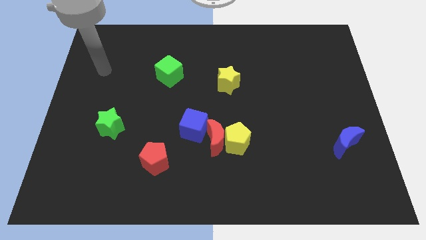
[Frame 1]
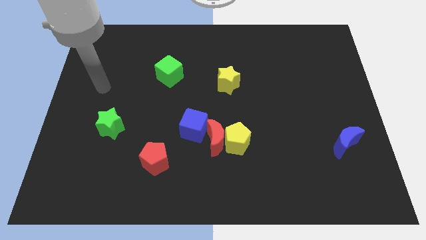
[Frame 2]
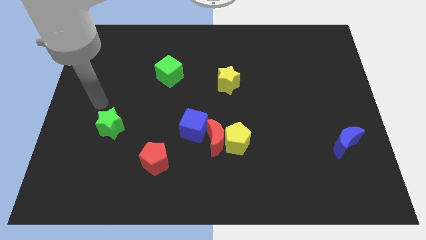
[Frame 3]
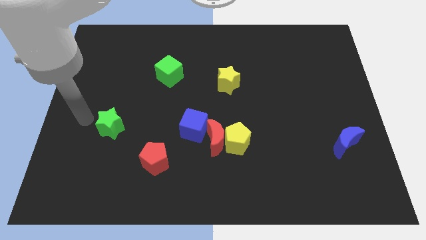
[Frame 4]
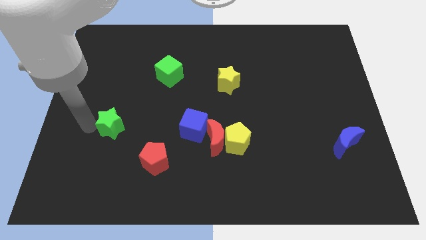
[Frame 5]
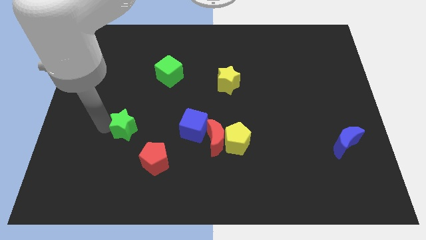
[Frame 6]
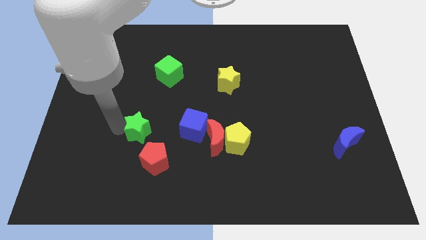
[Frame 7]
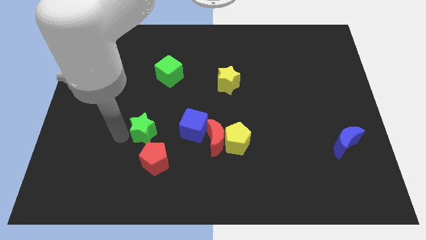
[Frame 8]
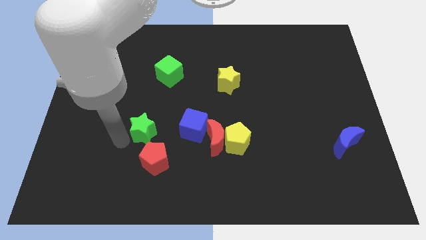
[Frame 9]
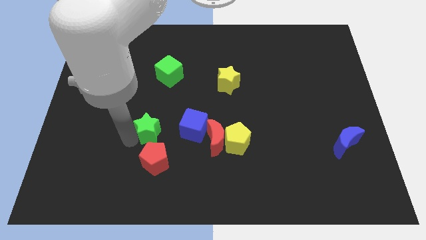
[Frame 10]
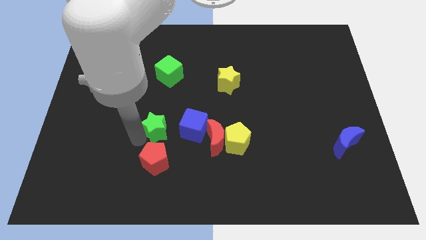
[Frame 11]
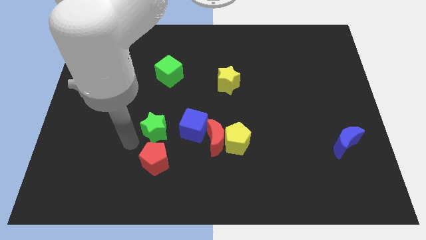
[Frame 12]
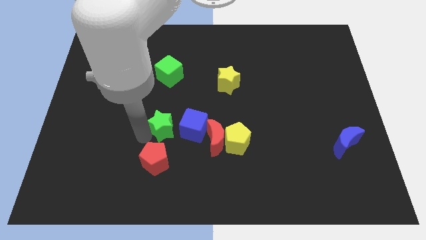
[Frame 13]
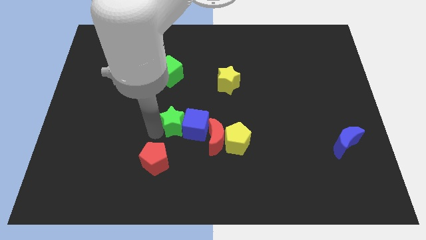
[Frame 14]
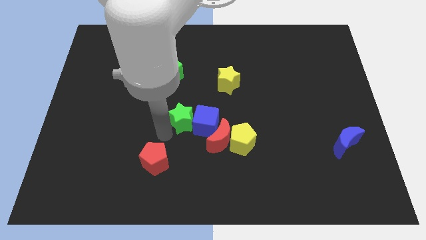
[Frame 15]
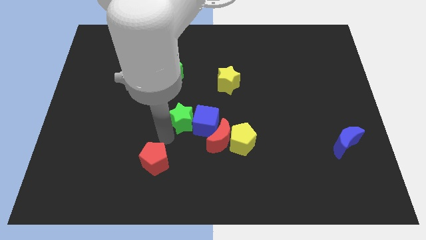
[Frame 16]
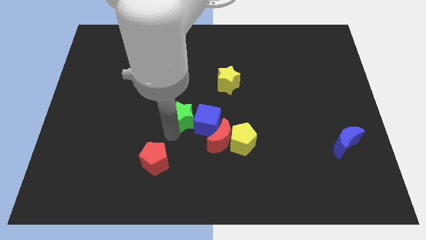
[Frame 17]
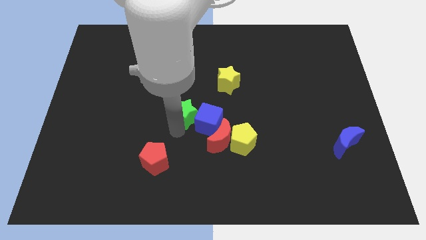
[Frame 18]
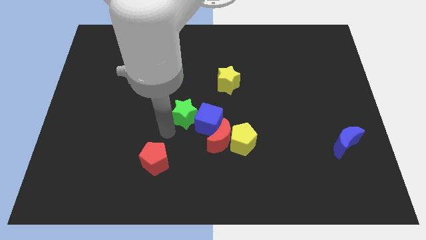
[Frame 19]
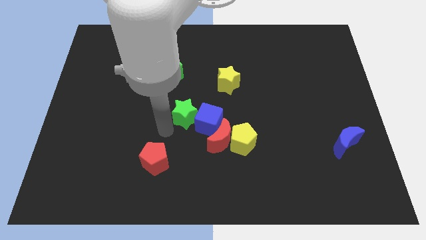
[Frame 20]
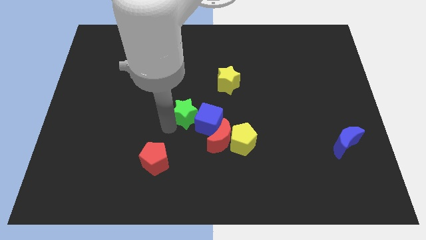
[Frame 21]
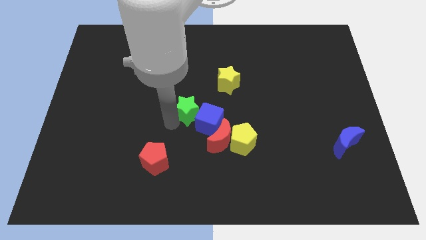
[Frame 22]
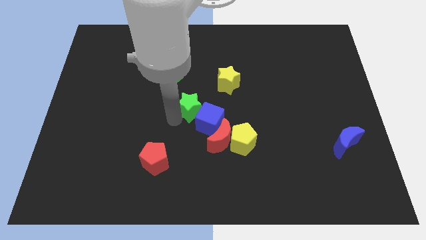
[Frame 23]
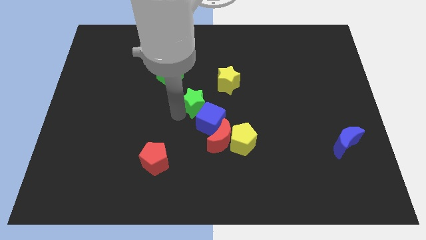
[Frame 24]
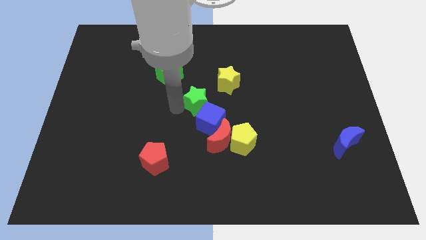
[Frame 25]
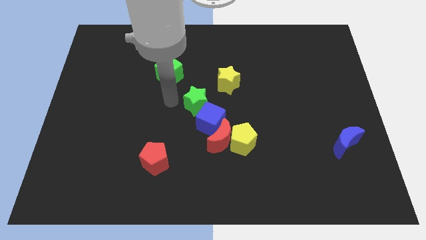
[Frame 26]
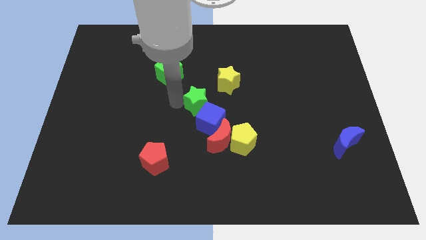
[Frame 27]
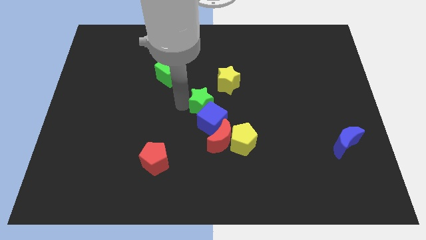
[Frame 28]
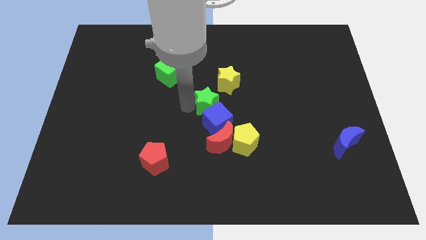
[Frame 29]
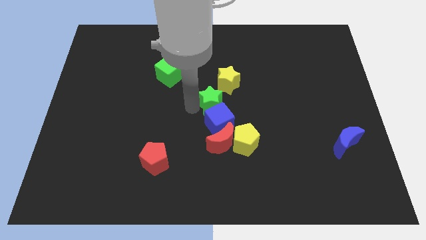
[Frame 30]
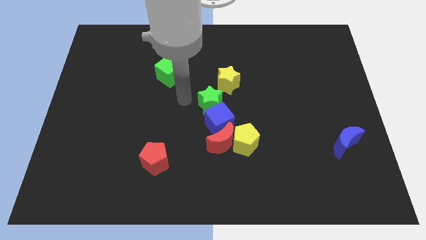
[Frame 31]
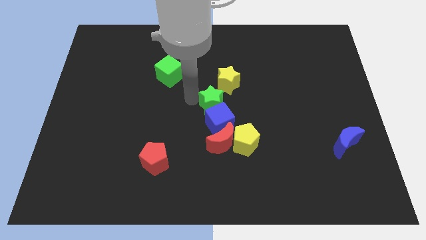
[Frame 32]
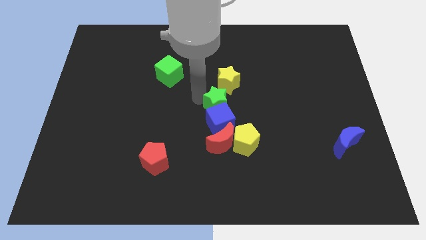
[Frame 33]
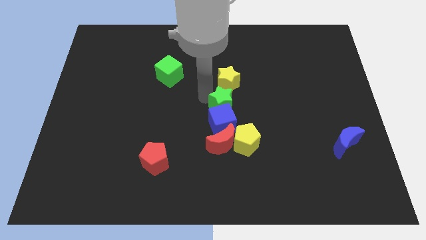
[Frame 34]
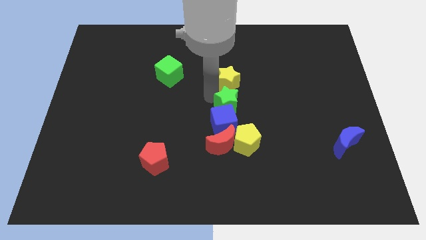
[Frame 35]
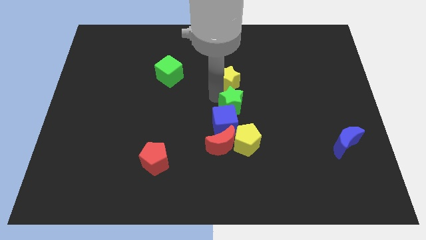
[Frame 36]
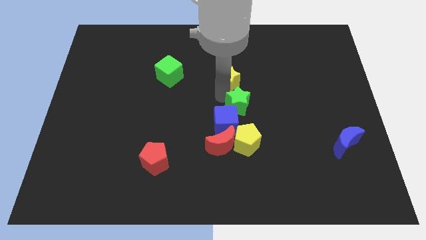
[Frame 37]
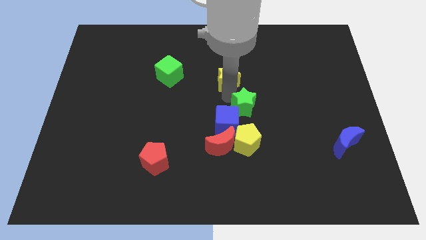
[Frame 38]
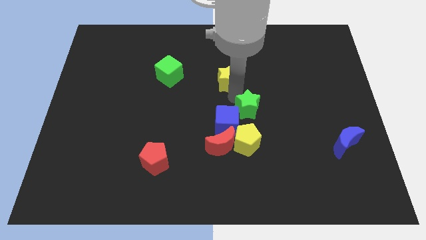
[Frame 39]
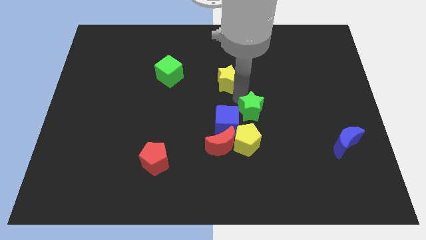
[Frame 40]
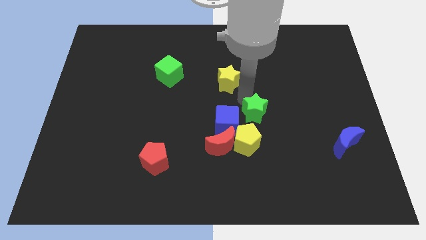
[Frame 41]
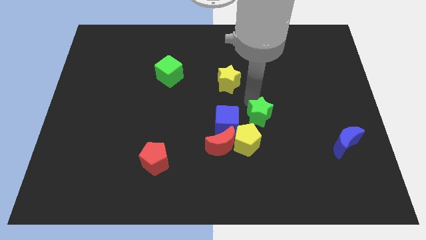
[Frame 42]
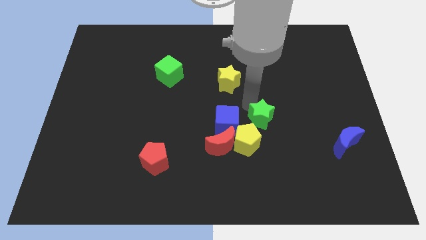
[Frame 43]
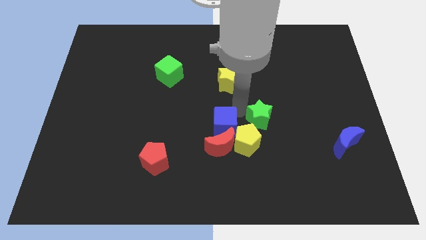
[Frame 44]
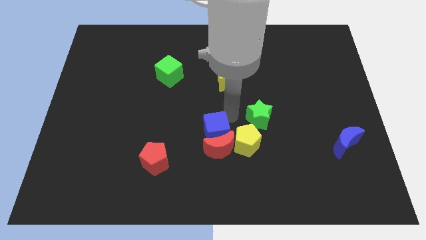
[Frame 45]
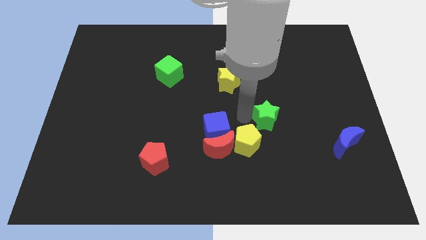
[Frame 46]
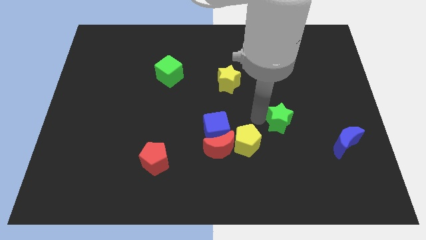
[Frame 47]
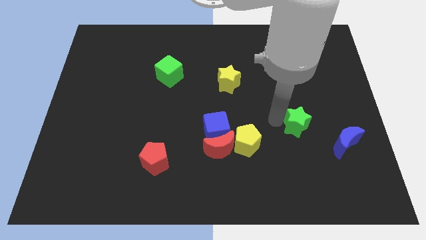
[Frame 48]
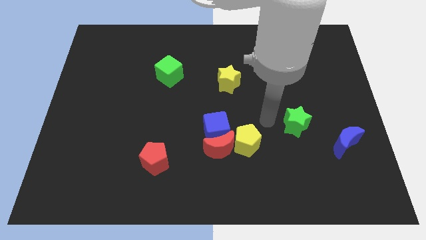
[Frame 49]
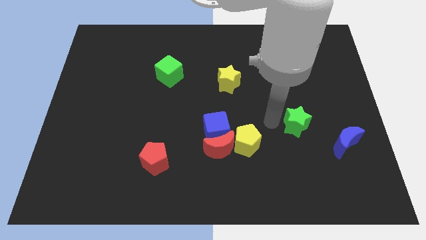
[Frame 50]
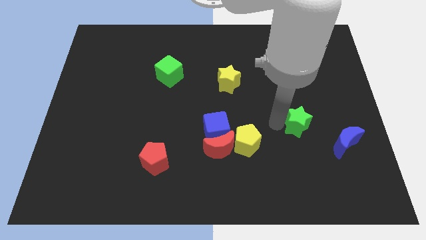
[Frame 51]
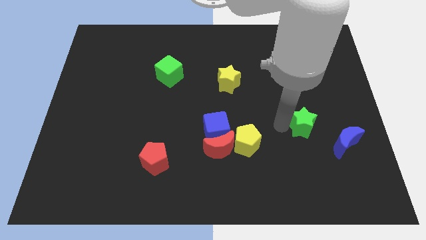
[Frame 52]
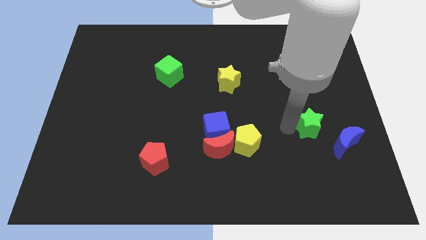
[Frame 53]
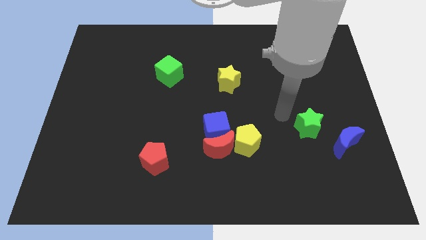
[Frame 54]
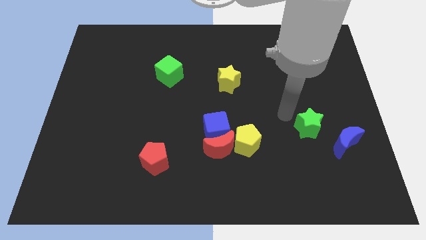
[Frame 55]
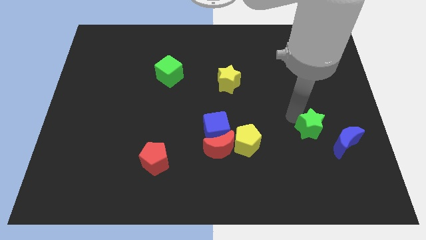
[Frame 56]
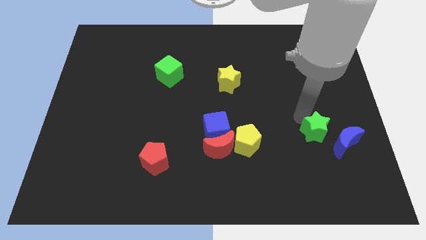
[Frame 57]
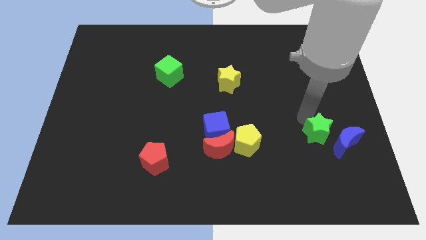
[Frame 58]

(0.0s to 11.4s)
move the green star to the blue moon

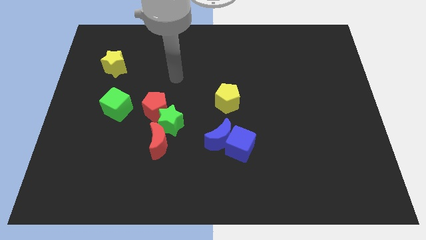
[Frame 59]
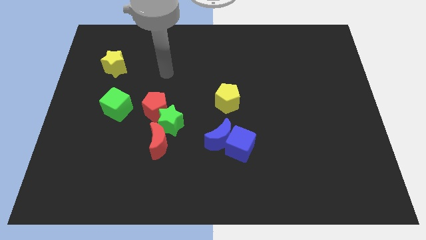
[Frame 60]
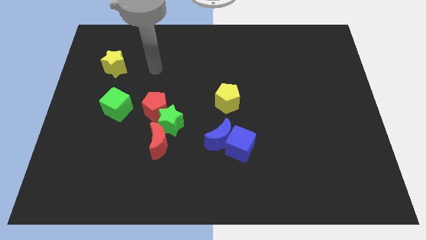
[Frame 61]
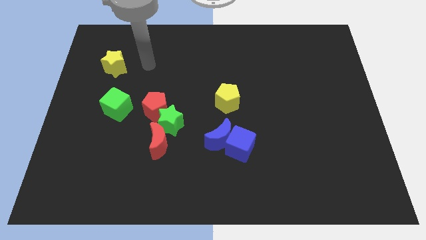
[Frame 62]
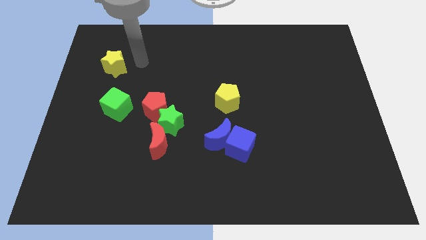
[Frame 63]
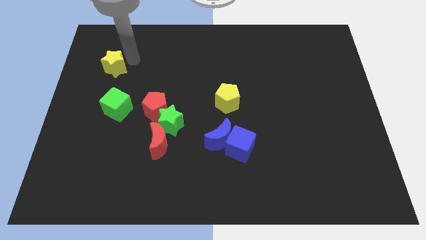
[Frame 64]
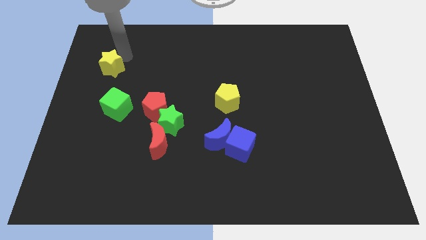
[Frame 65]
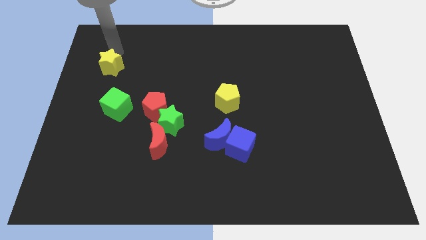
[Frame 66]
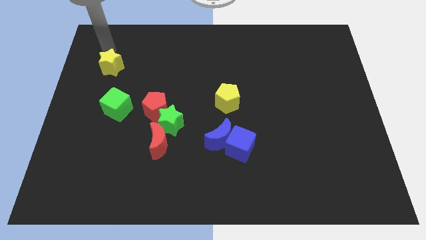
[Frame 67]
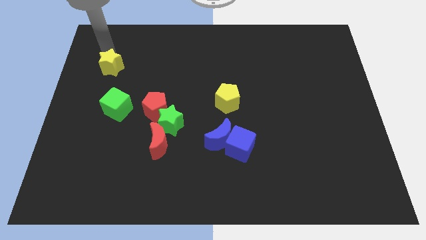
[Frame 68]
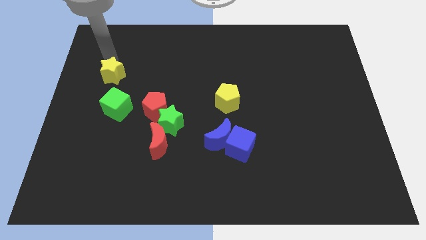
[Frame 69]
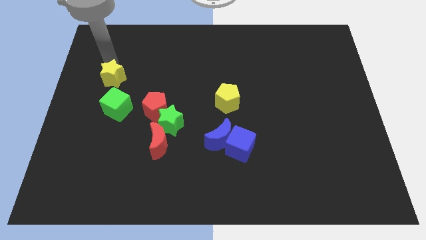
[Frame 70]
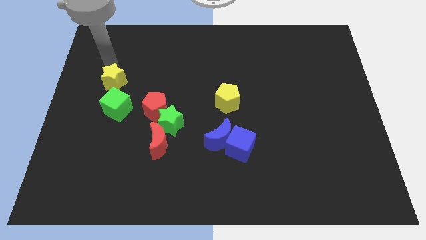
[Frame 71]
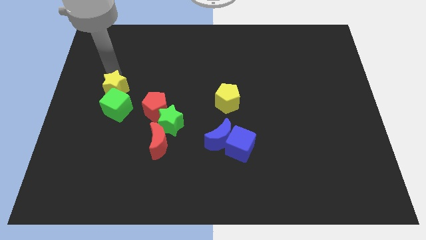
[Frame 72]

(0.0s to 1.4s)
put the yellow star next to the green cube

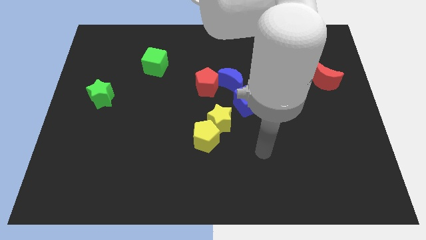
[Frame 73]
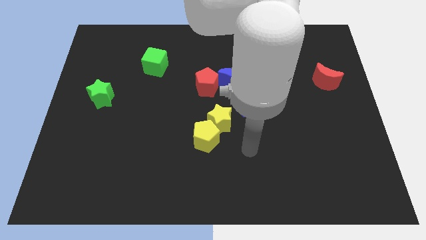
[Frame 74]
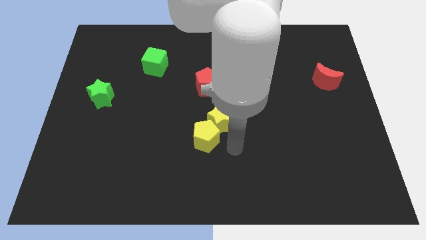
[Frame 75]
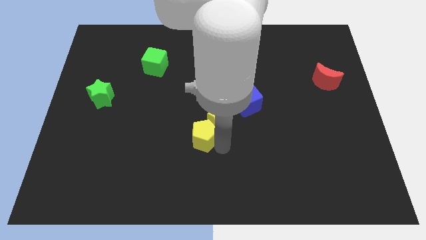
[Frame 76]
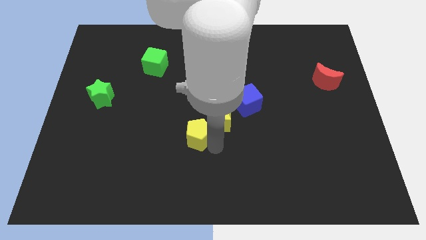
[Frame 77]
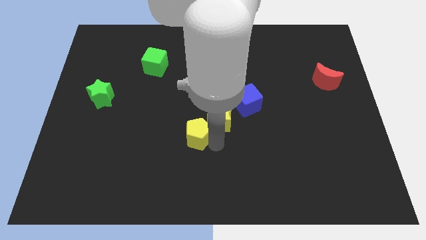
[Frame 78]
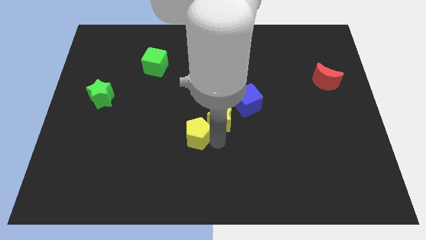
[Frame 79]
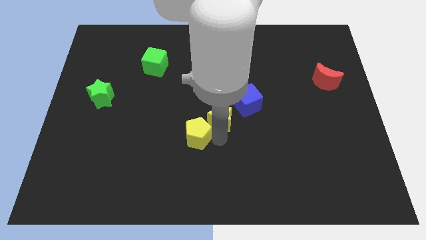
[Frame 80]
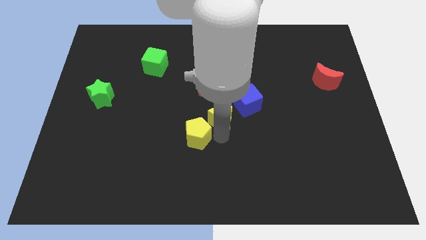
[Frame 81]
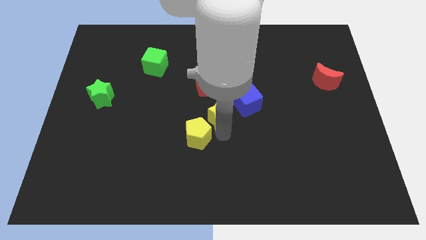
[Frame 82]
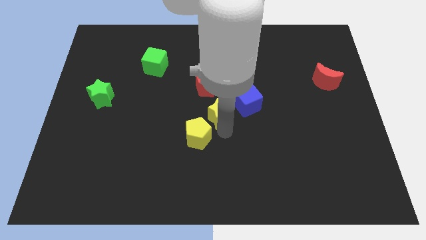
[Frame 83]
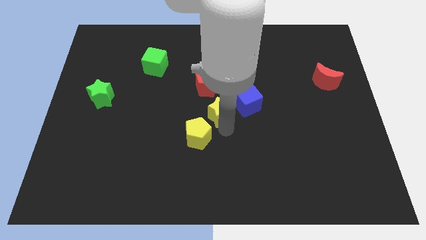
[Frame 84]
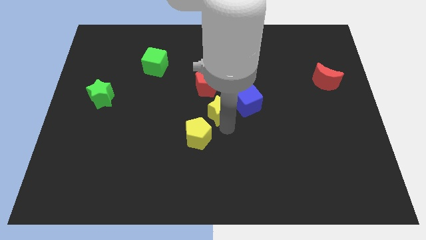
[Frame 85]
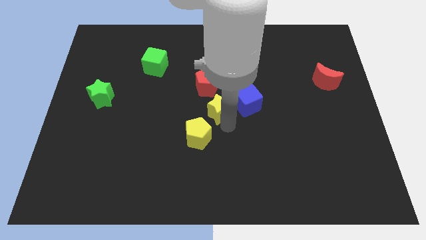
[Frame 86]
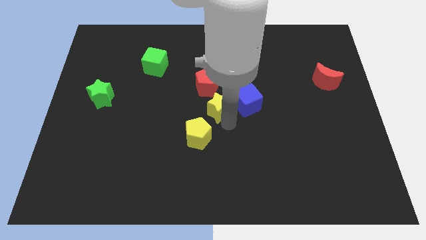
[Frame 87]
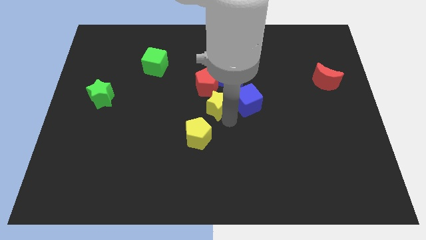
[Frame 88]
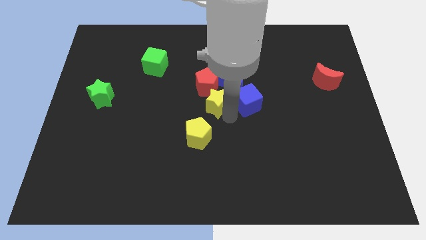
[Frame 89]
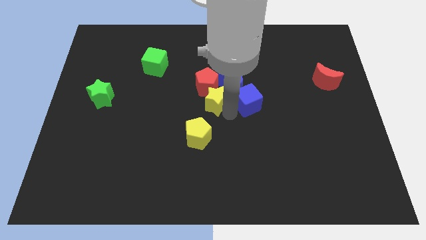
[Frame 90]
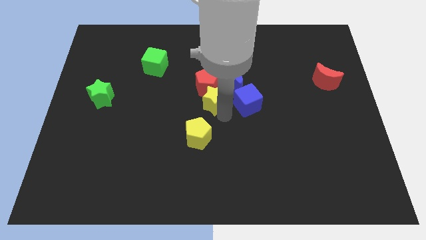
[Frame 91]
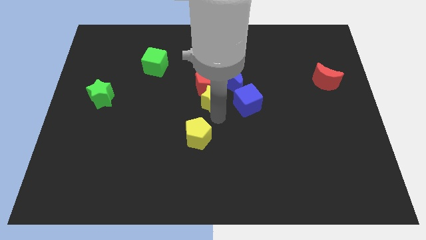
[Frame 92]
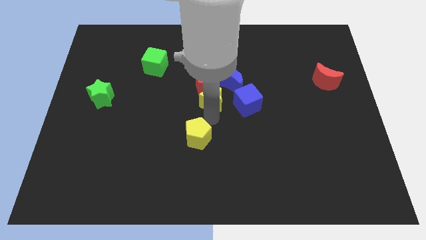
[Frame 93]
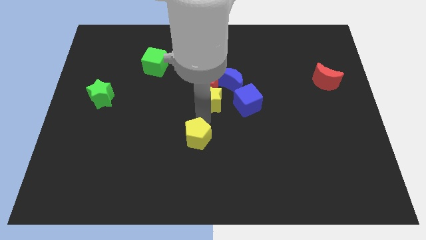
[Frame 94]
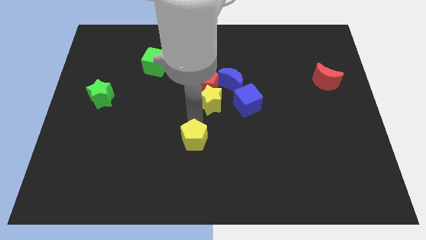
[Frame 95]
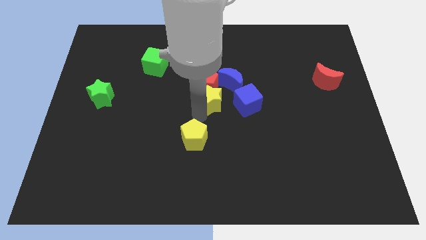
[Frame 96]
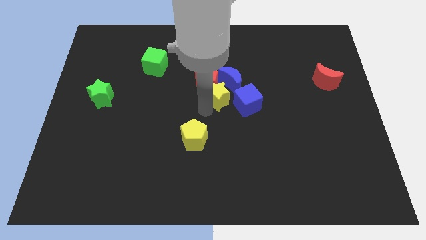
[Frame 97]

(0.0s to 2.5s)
put the yellow star close to the blue moon
